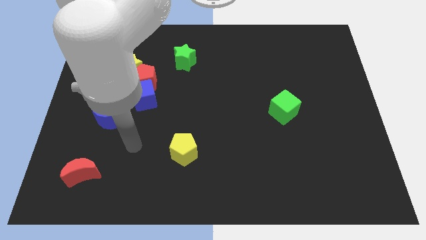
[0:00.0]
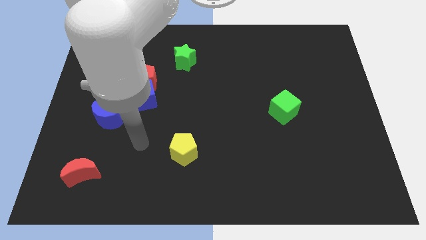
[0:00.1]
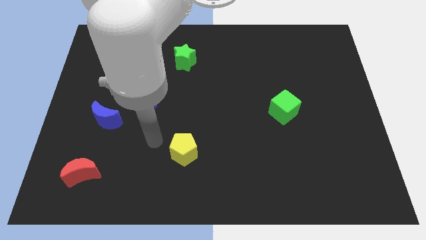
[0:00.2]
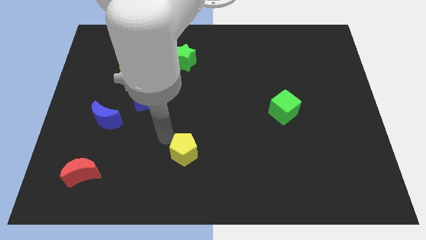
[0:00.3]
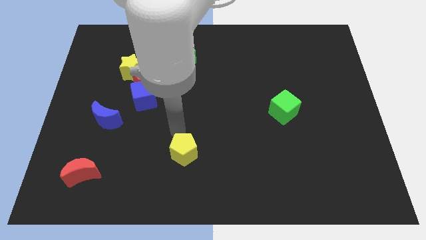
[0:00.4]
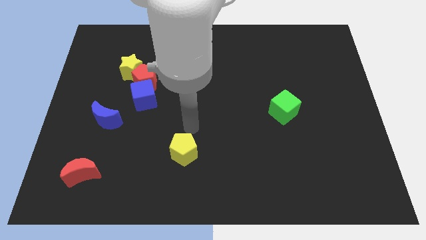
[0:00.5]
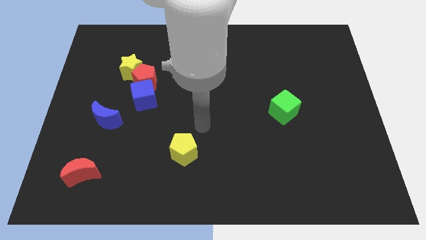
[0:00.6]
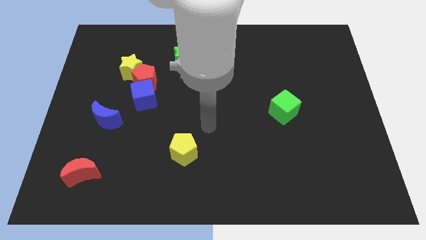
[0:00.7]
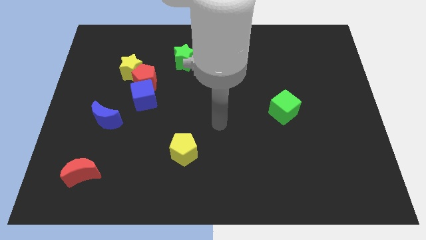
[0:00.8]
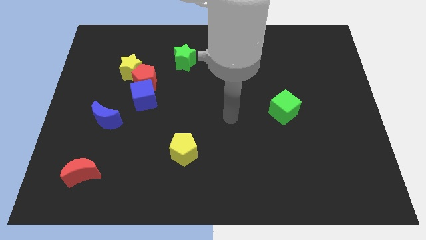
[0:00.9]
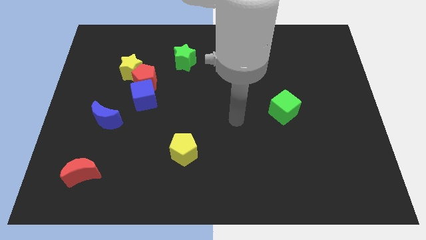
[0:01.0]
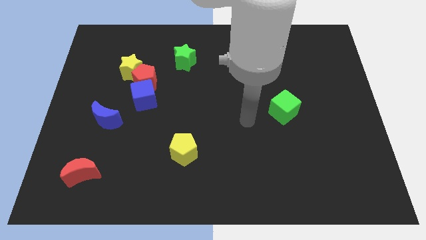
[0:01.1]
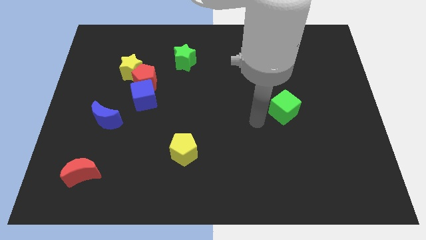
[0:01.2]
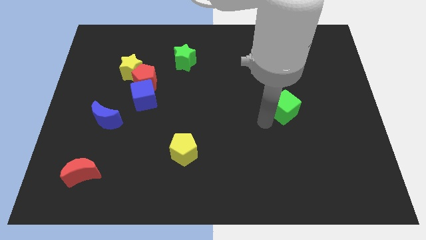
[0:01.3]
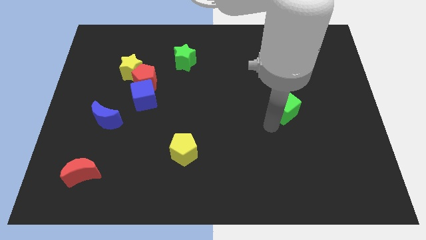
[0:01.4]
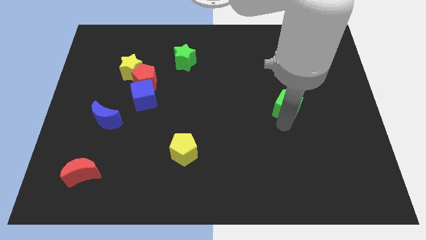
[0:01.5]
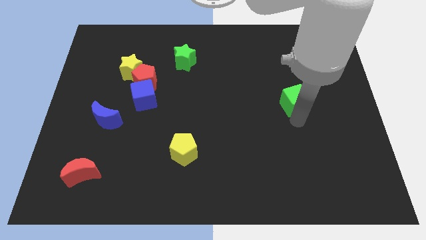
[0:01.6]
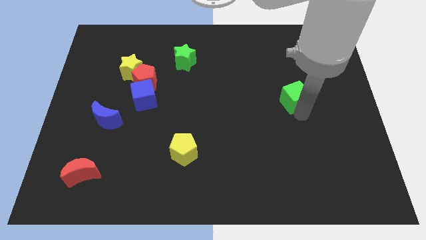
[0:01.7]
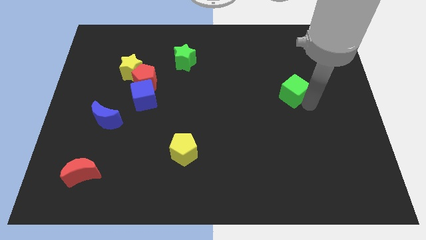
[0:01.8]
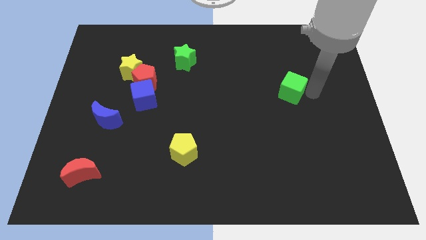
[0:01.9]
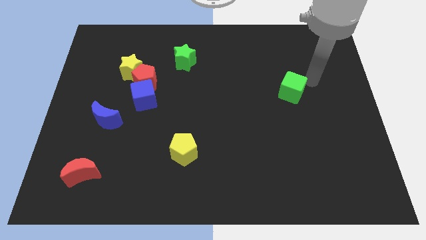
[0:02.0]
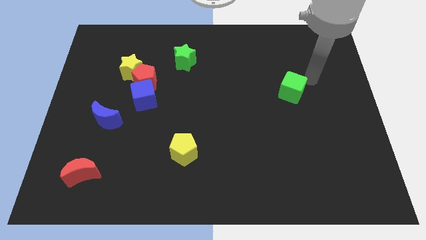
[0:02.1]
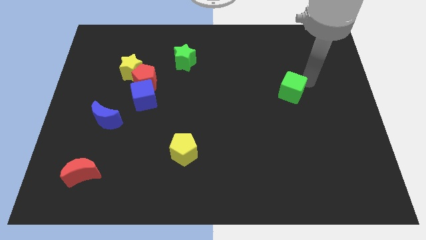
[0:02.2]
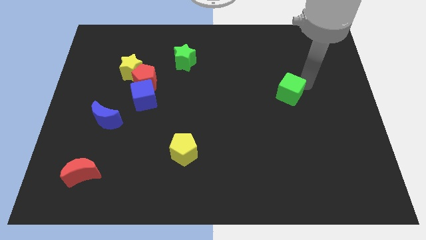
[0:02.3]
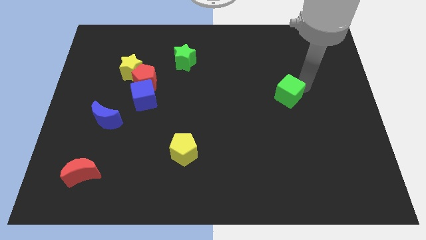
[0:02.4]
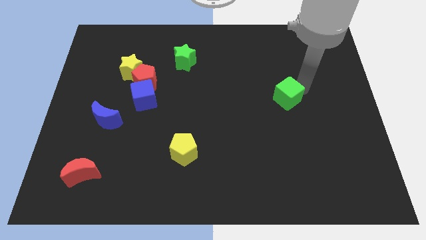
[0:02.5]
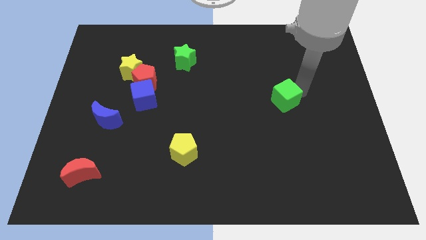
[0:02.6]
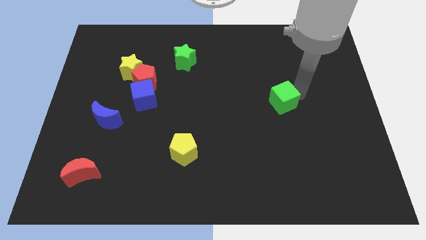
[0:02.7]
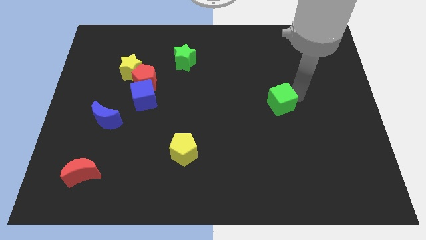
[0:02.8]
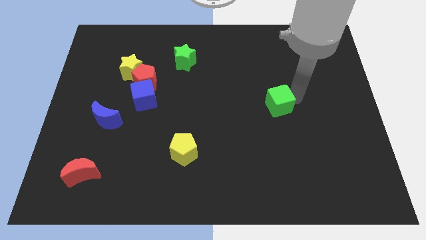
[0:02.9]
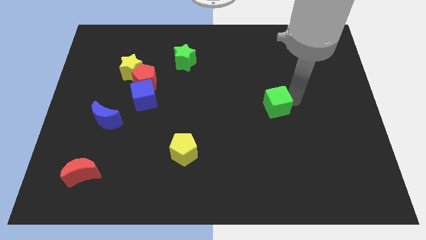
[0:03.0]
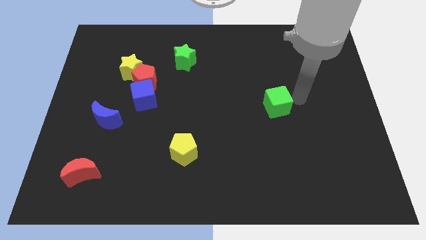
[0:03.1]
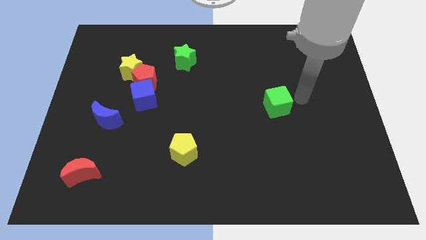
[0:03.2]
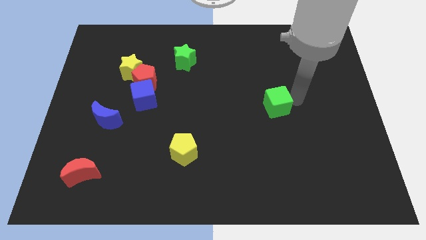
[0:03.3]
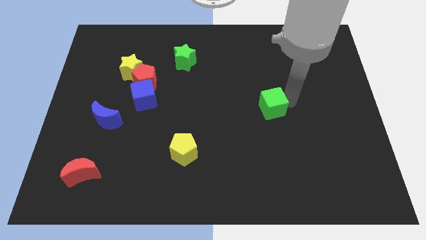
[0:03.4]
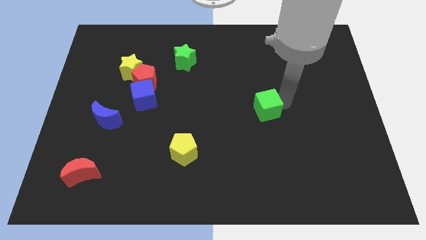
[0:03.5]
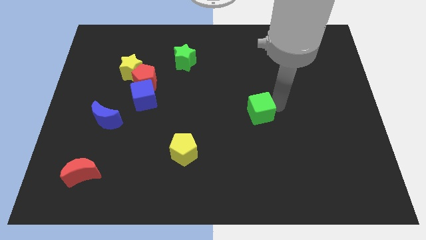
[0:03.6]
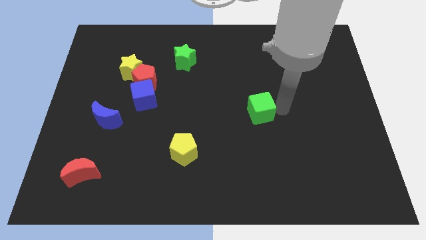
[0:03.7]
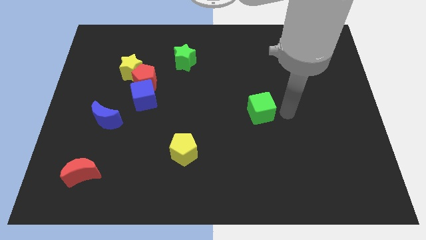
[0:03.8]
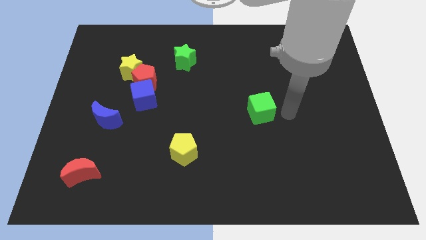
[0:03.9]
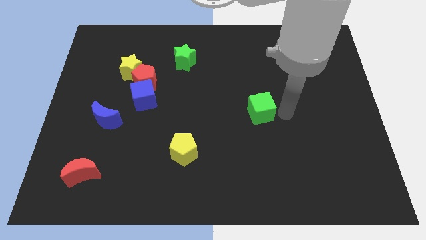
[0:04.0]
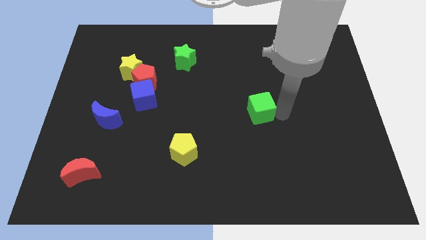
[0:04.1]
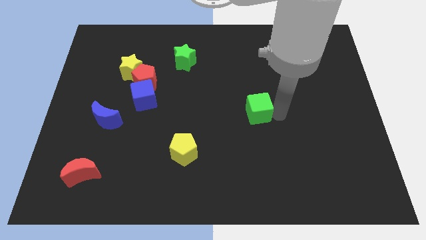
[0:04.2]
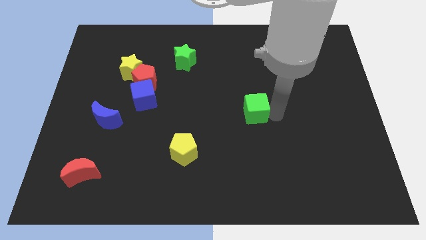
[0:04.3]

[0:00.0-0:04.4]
move the green cube to the left slightly

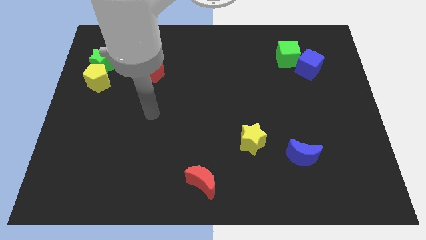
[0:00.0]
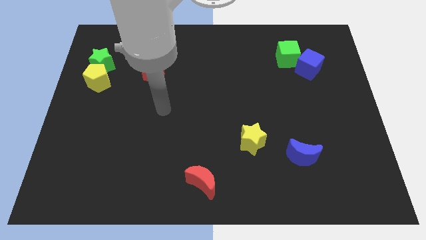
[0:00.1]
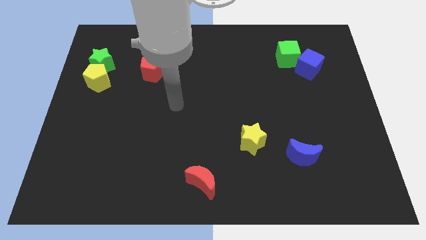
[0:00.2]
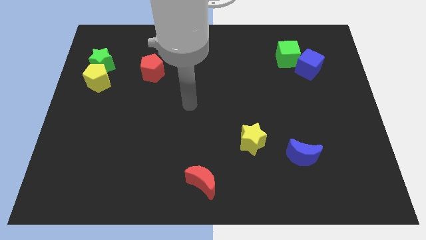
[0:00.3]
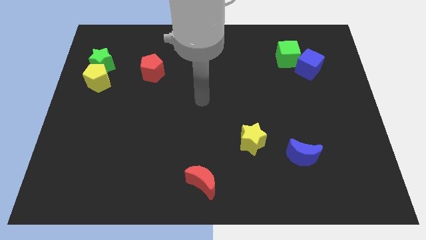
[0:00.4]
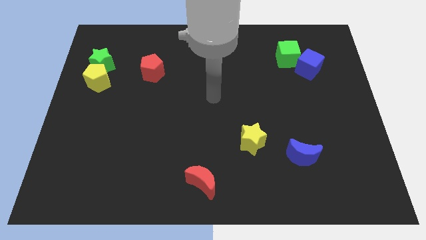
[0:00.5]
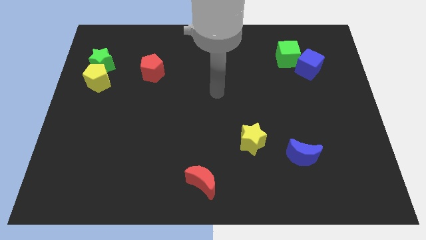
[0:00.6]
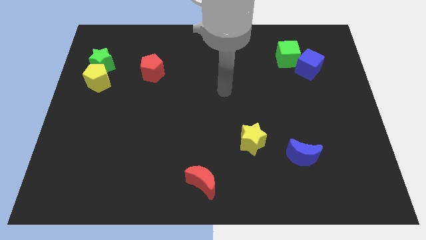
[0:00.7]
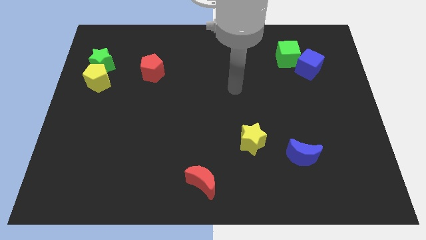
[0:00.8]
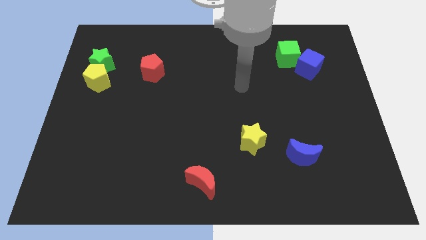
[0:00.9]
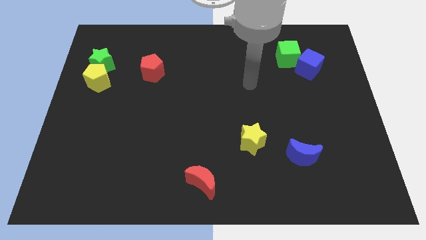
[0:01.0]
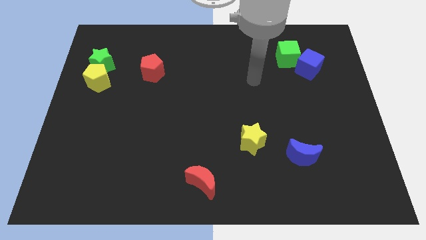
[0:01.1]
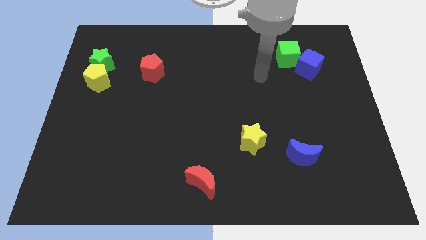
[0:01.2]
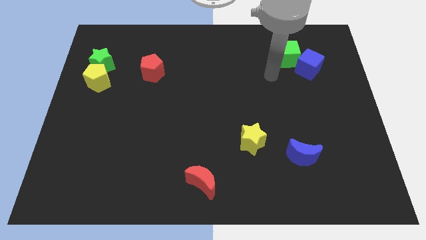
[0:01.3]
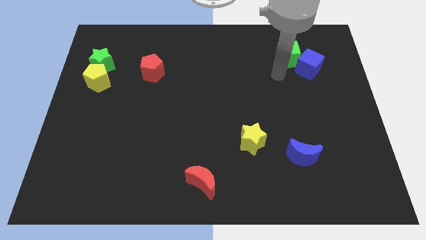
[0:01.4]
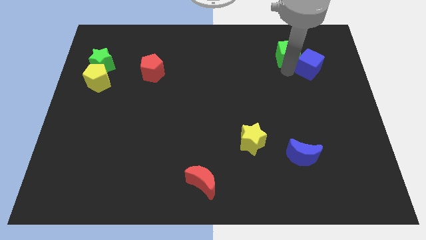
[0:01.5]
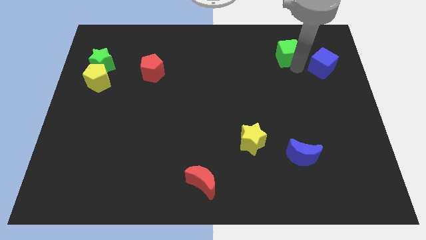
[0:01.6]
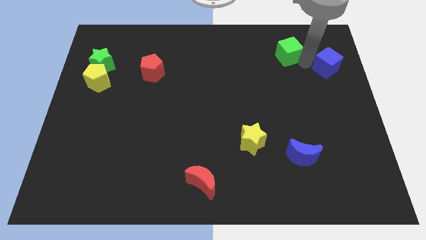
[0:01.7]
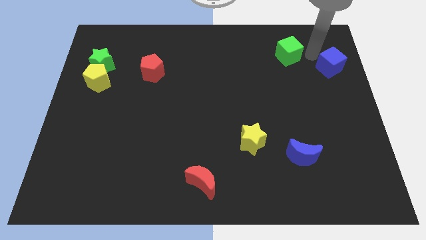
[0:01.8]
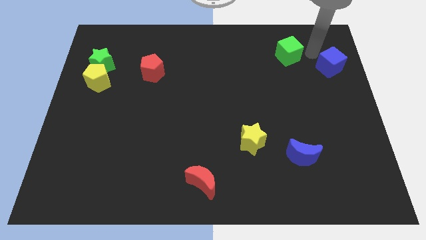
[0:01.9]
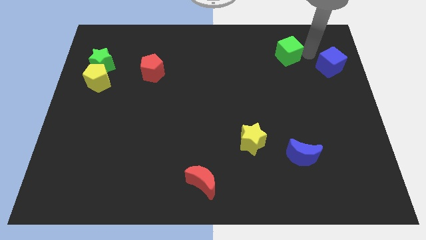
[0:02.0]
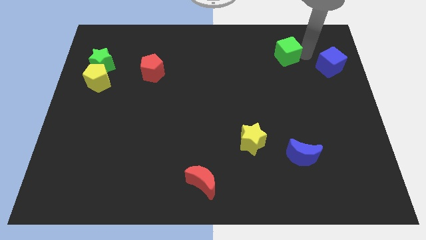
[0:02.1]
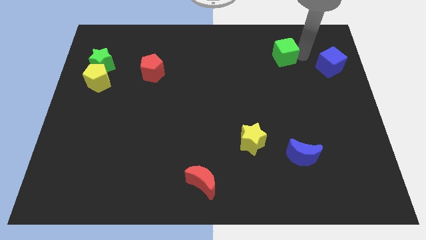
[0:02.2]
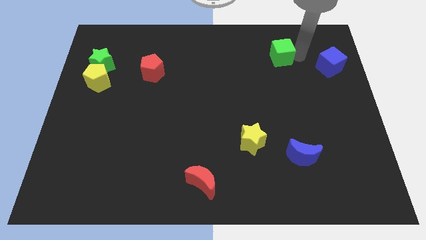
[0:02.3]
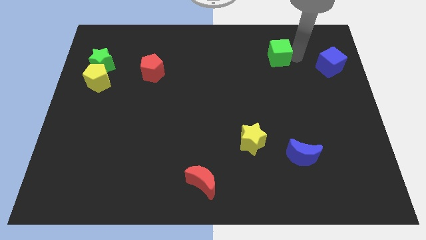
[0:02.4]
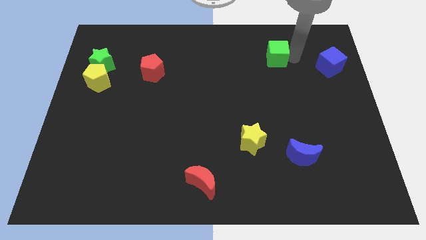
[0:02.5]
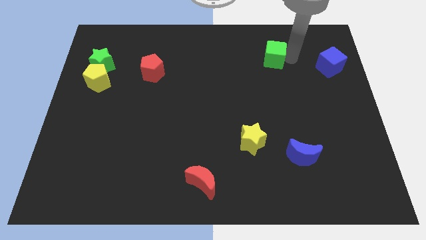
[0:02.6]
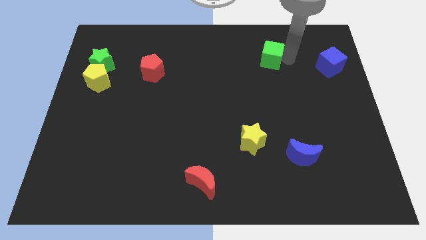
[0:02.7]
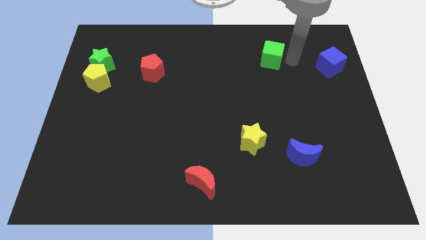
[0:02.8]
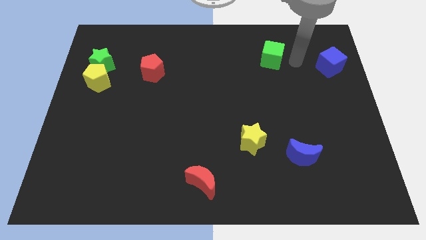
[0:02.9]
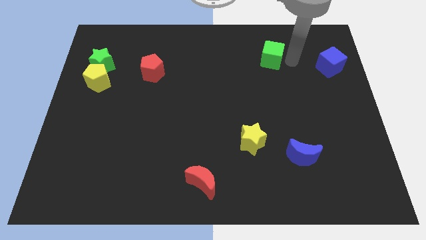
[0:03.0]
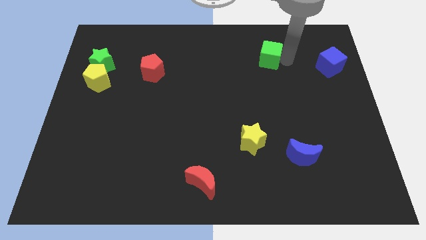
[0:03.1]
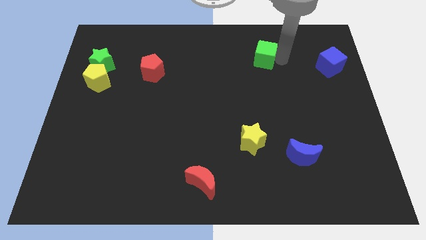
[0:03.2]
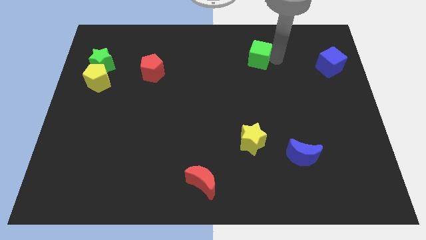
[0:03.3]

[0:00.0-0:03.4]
slide the green cube left a little bit

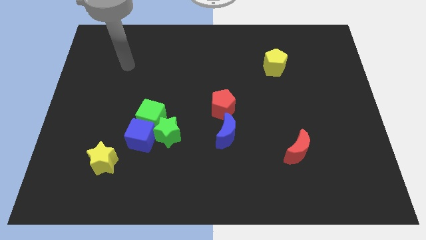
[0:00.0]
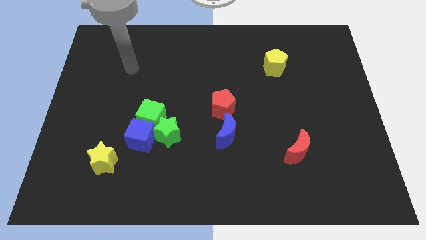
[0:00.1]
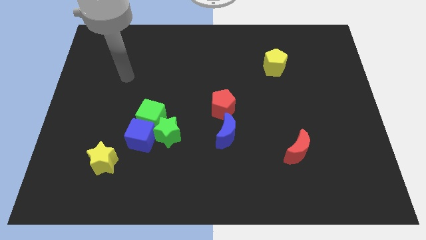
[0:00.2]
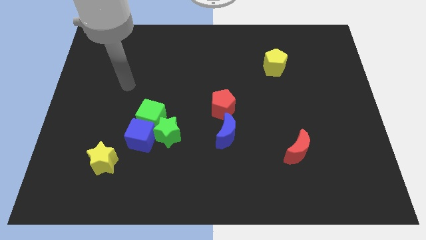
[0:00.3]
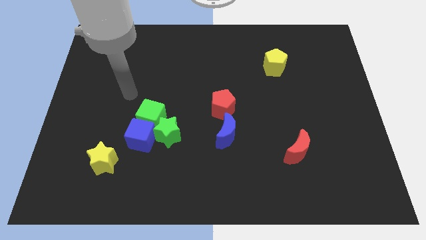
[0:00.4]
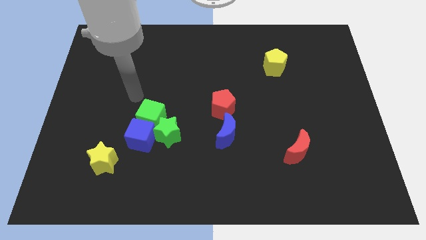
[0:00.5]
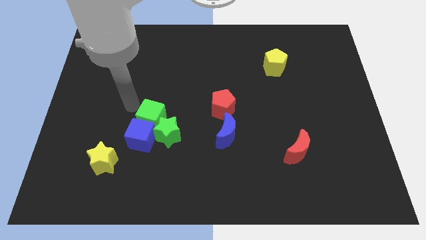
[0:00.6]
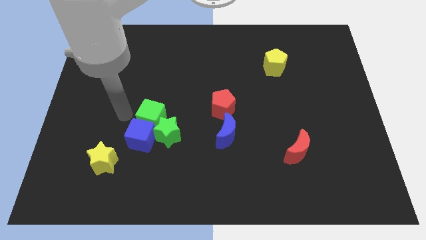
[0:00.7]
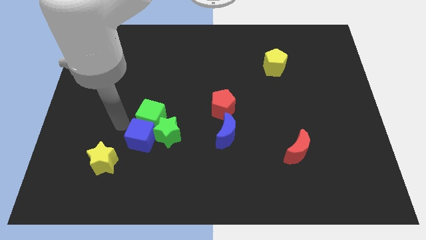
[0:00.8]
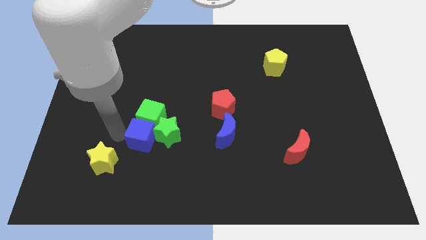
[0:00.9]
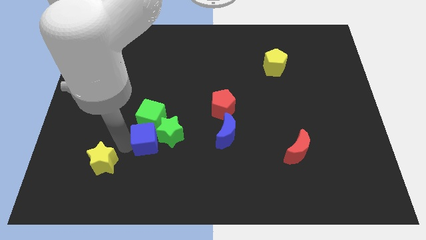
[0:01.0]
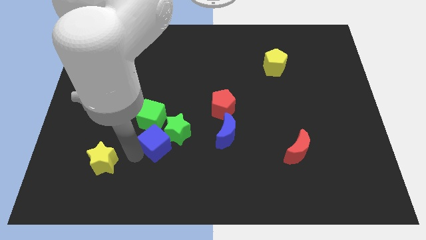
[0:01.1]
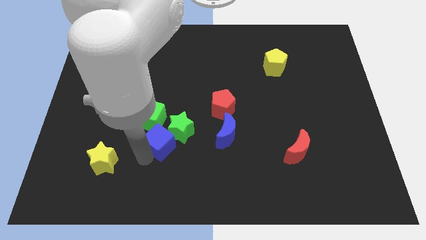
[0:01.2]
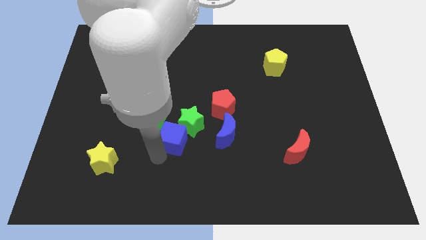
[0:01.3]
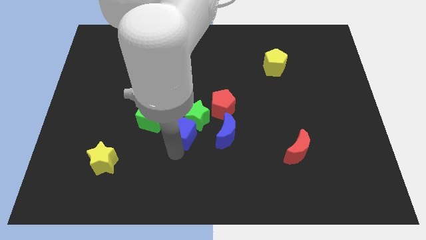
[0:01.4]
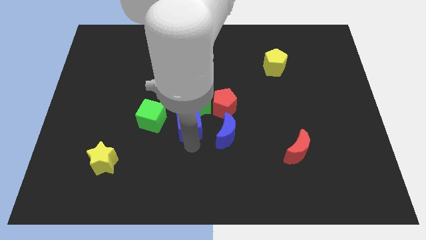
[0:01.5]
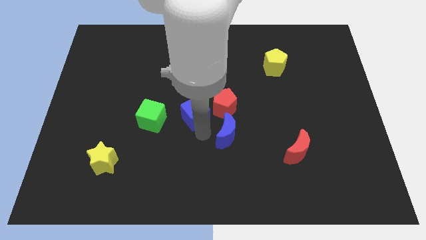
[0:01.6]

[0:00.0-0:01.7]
move the green star upwards somewhat
